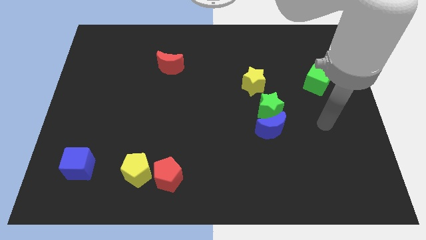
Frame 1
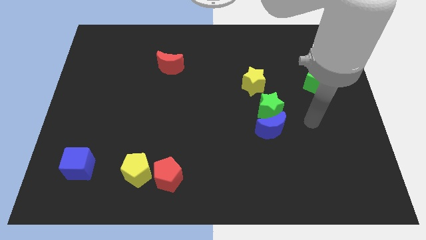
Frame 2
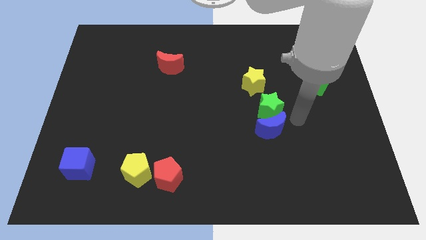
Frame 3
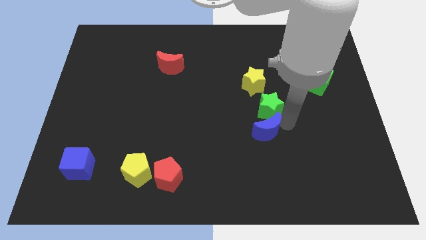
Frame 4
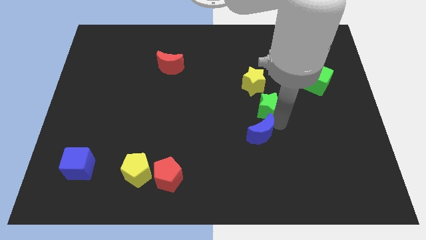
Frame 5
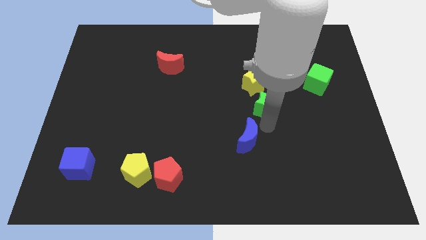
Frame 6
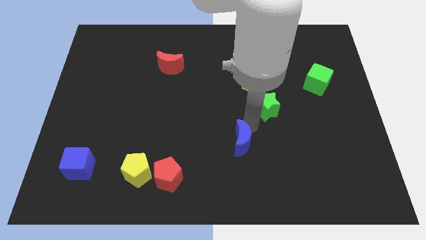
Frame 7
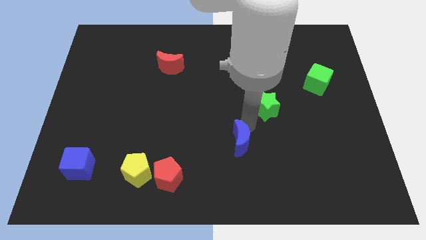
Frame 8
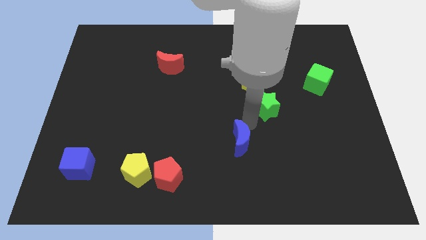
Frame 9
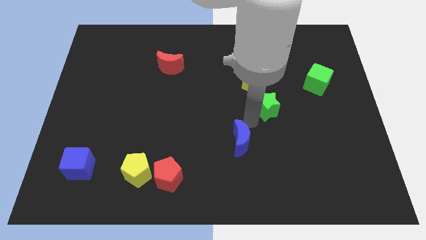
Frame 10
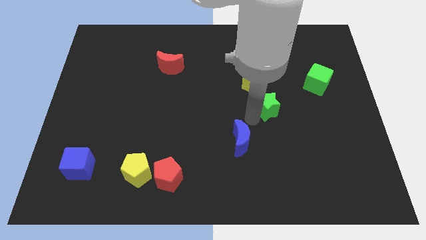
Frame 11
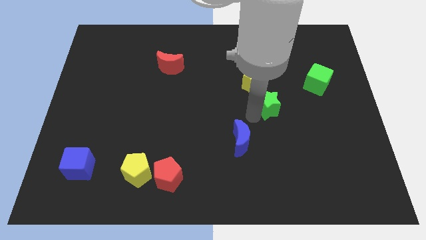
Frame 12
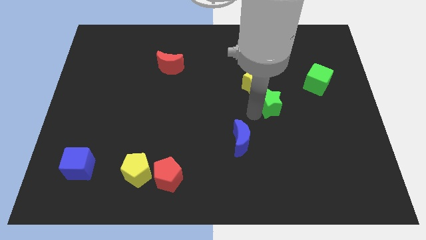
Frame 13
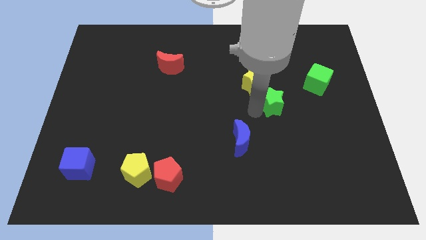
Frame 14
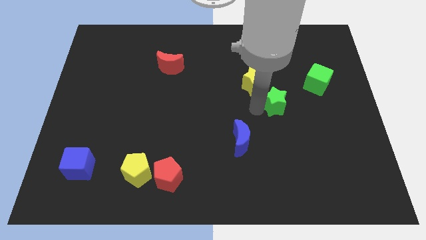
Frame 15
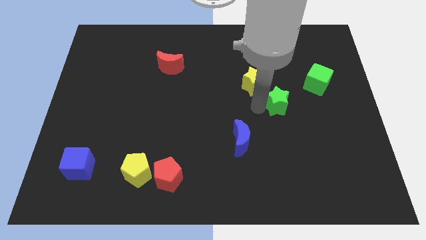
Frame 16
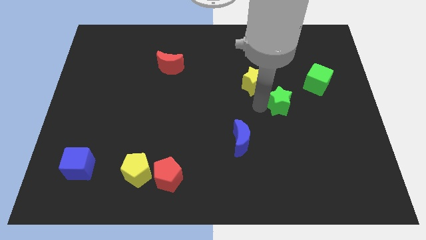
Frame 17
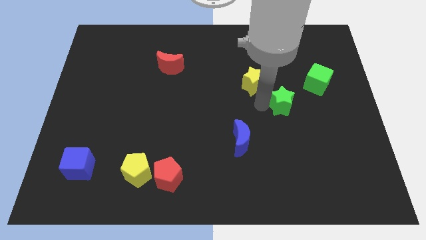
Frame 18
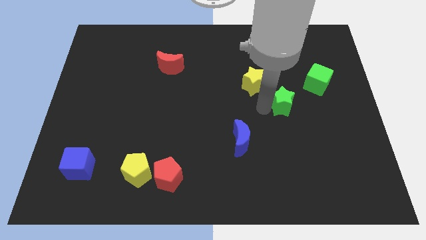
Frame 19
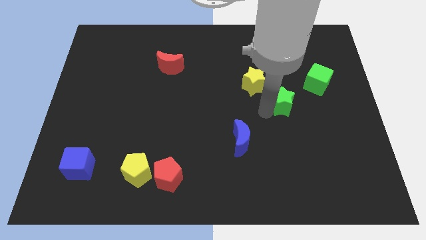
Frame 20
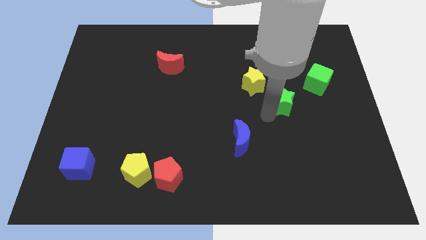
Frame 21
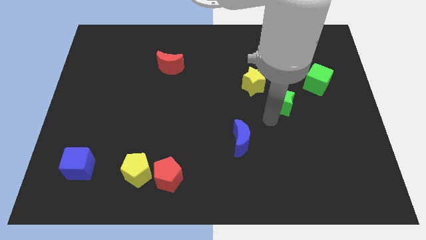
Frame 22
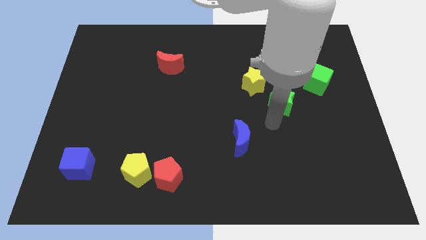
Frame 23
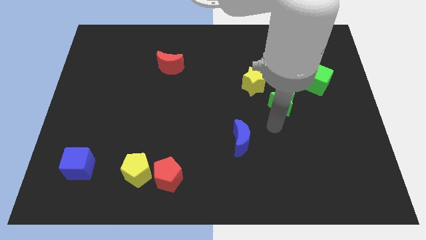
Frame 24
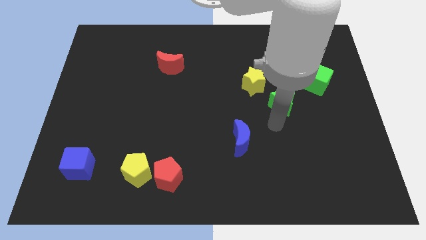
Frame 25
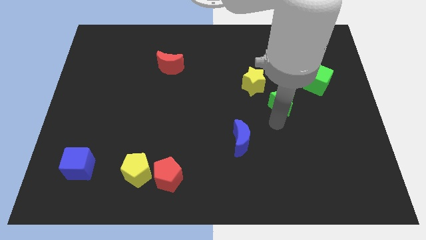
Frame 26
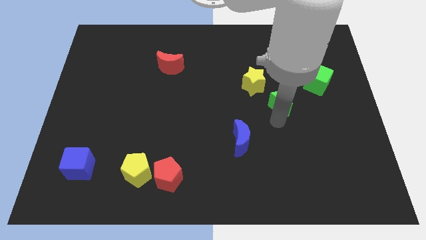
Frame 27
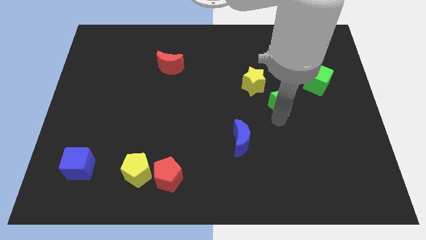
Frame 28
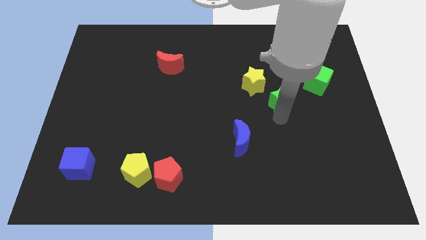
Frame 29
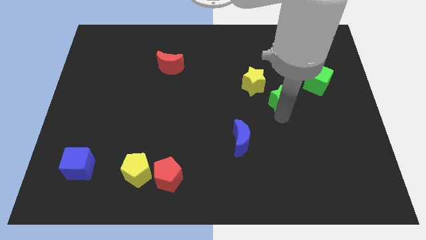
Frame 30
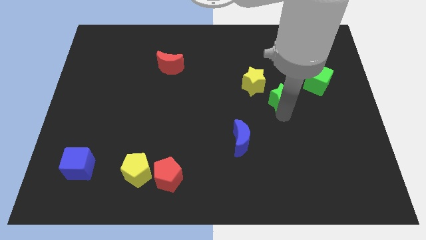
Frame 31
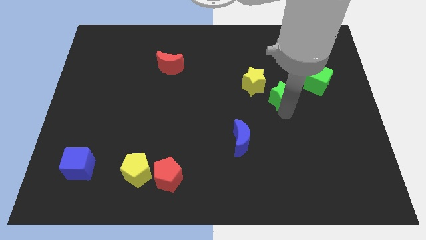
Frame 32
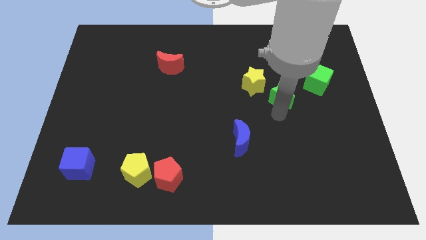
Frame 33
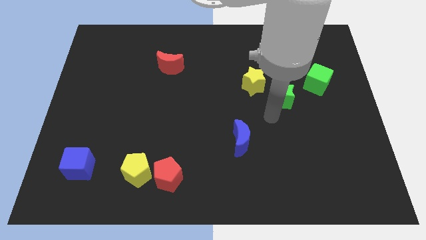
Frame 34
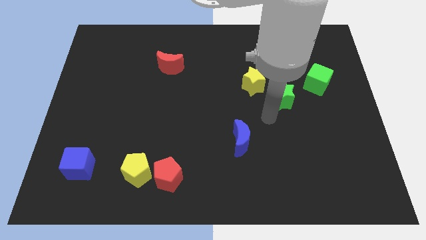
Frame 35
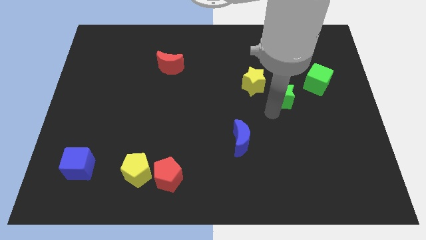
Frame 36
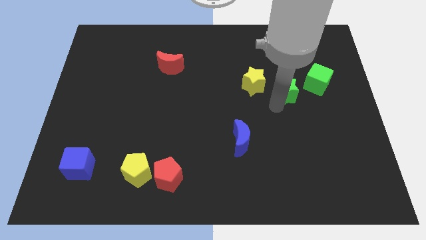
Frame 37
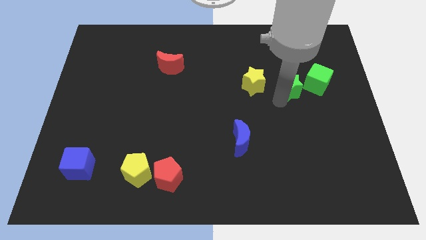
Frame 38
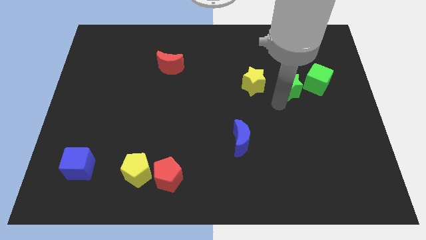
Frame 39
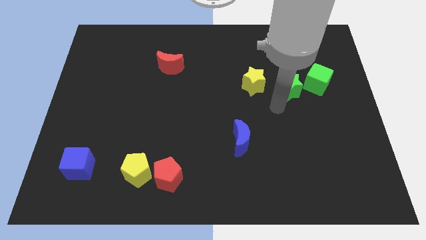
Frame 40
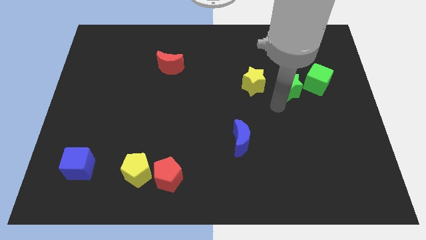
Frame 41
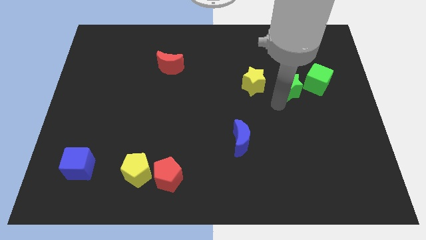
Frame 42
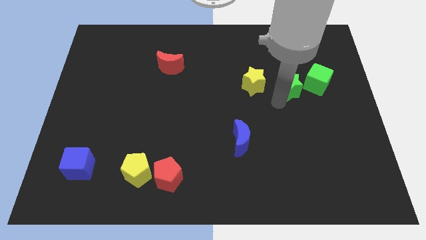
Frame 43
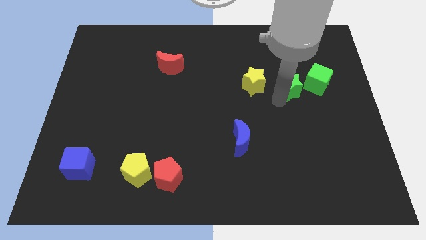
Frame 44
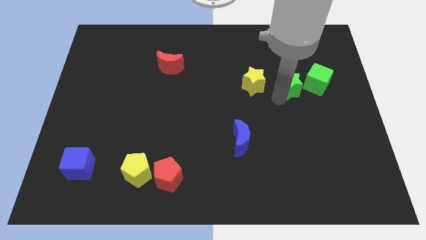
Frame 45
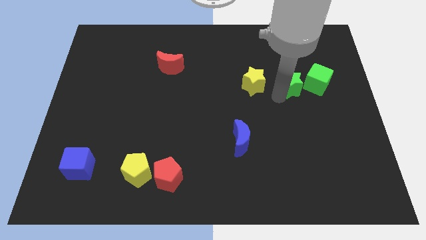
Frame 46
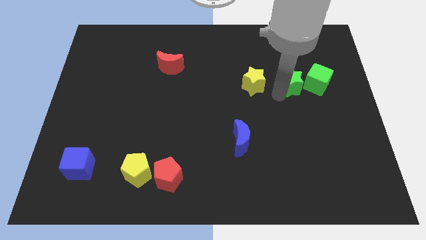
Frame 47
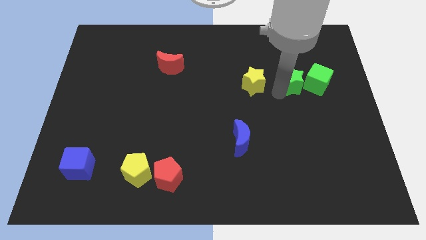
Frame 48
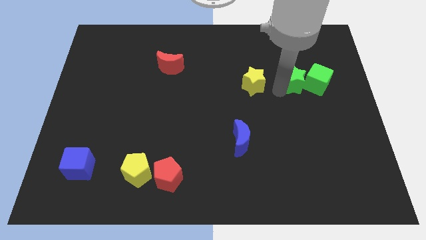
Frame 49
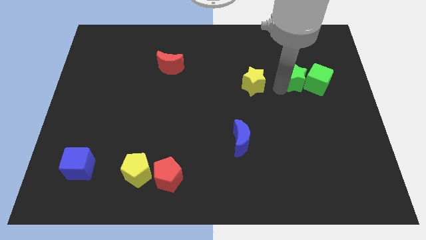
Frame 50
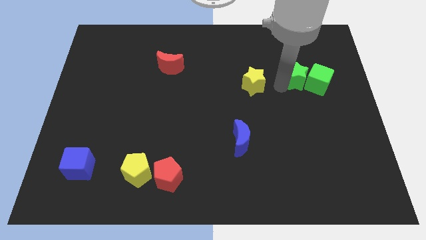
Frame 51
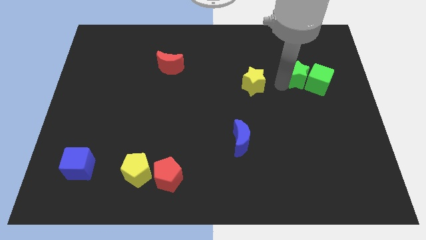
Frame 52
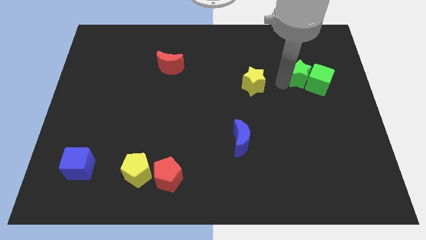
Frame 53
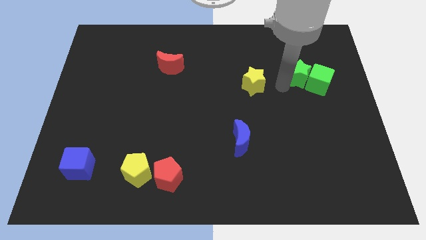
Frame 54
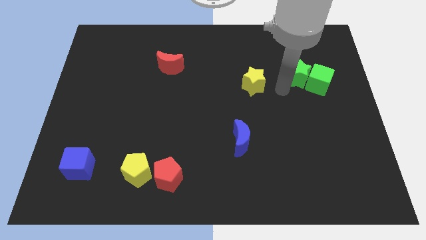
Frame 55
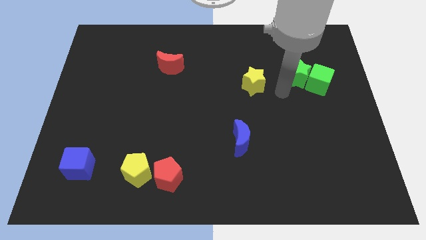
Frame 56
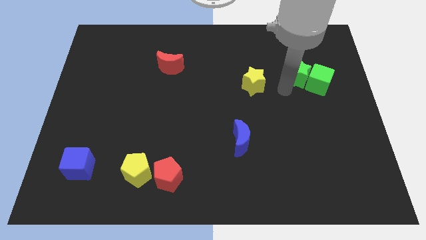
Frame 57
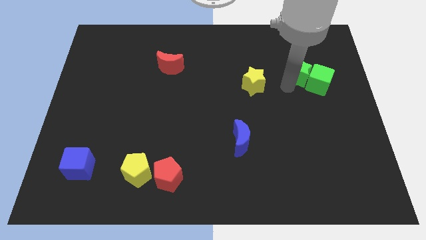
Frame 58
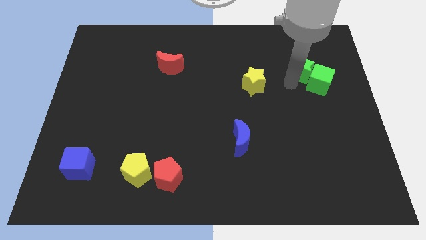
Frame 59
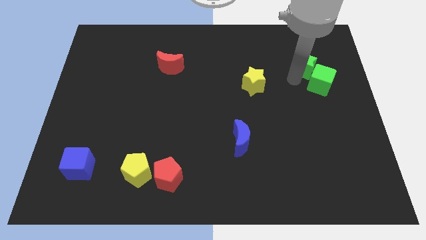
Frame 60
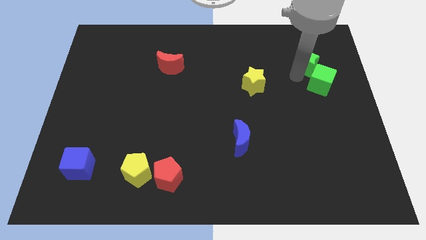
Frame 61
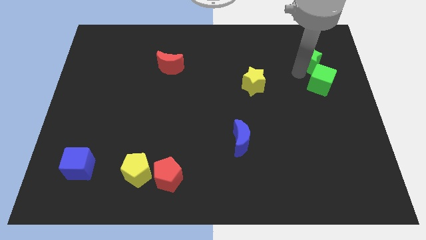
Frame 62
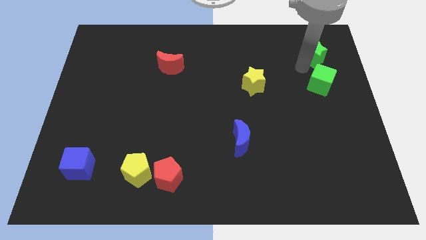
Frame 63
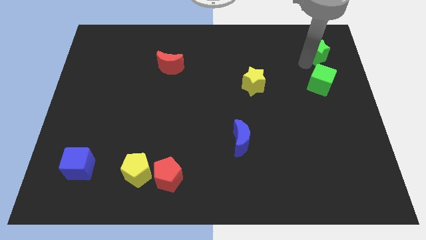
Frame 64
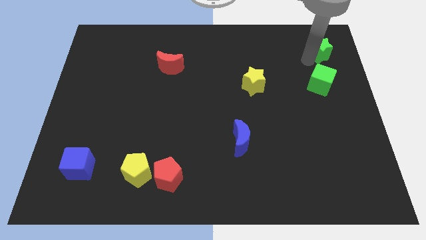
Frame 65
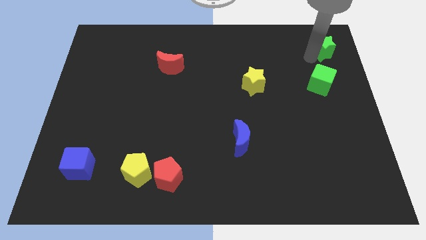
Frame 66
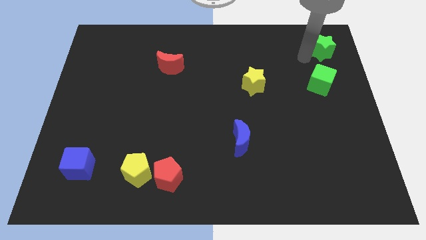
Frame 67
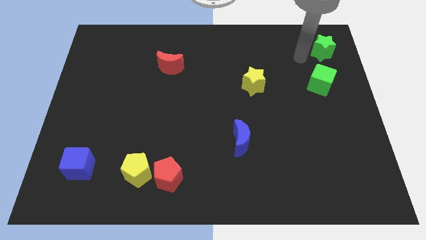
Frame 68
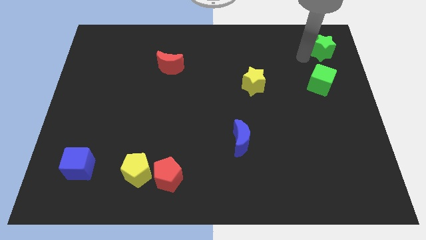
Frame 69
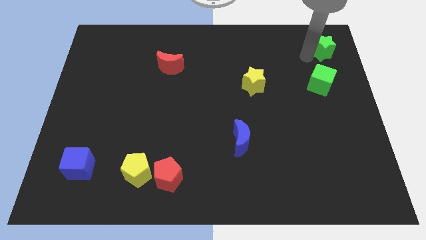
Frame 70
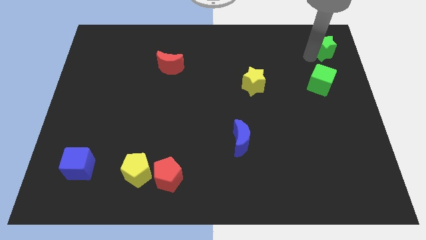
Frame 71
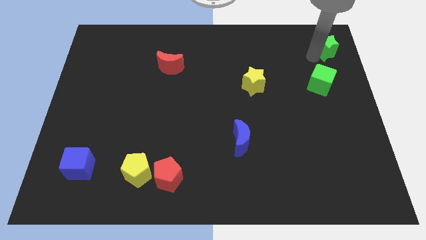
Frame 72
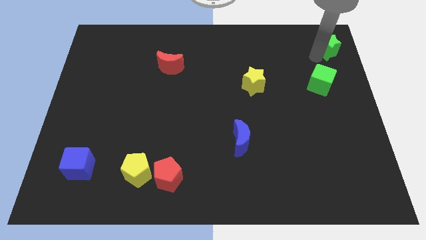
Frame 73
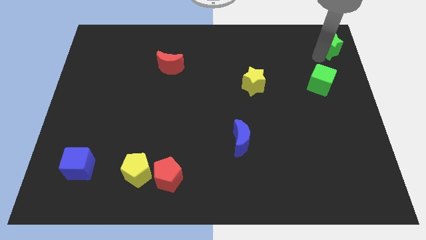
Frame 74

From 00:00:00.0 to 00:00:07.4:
put the green star to the top right of the board
